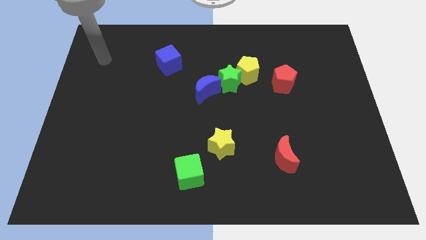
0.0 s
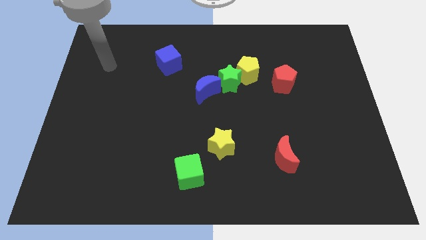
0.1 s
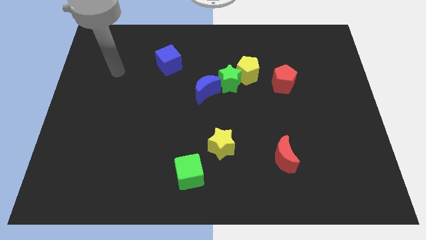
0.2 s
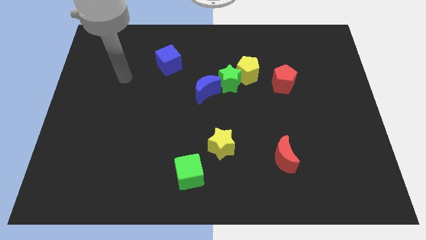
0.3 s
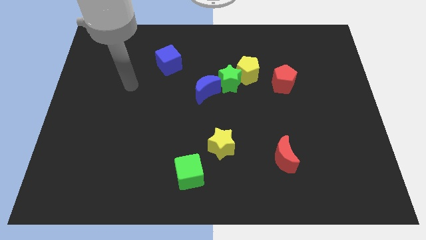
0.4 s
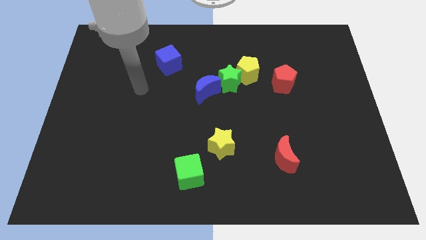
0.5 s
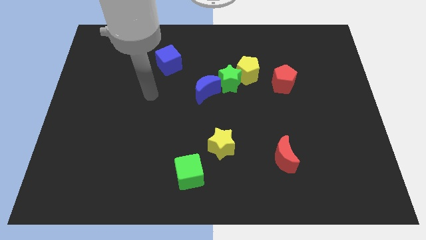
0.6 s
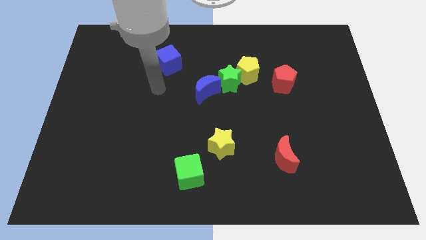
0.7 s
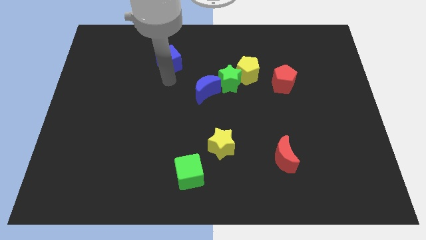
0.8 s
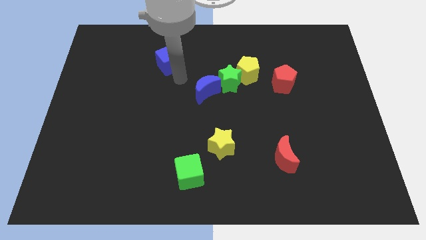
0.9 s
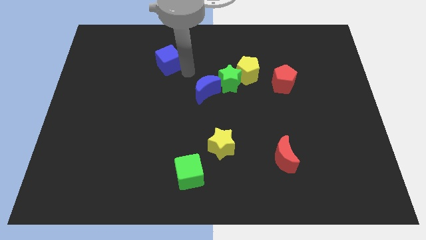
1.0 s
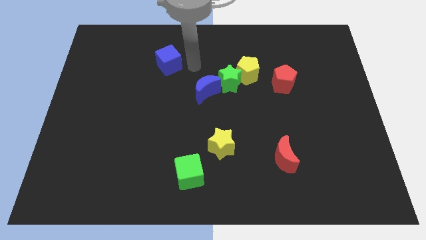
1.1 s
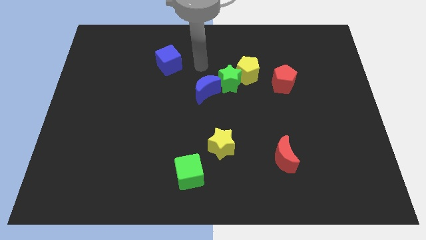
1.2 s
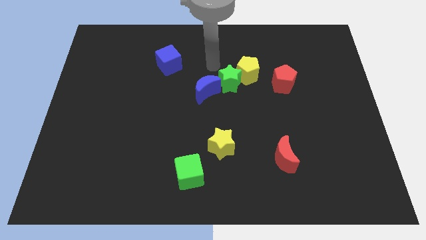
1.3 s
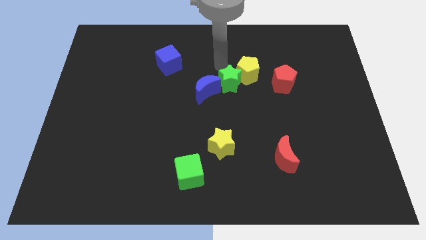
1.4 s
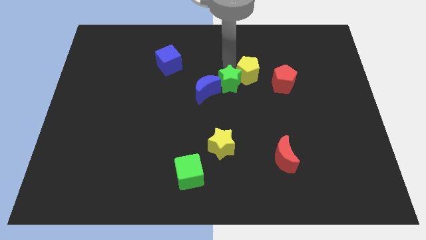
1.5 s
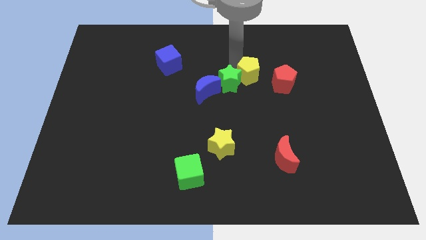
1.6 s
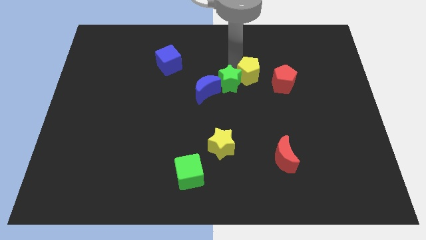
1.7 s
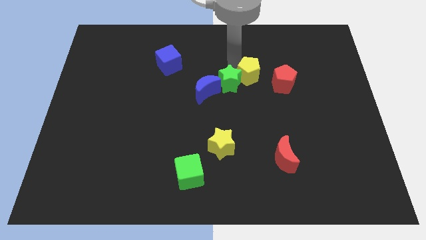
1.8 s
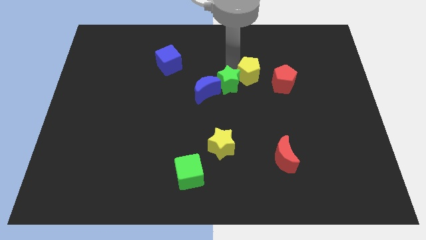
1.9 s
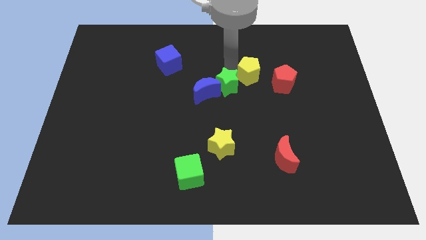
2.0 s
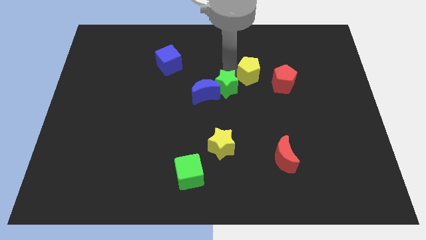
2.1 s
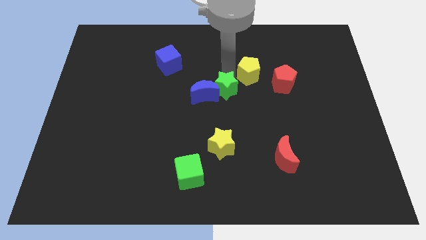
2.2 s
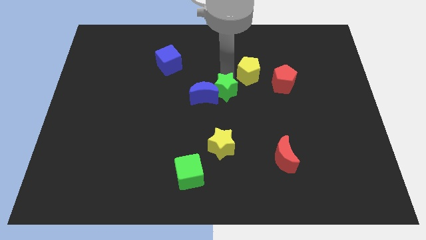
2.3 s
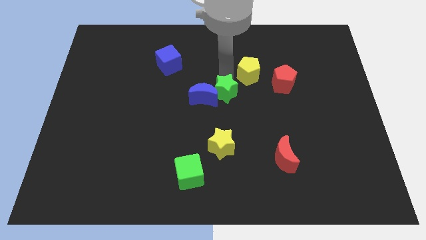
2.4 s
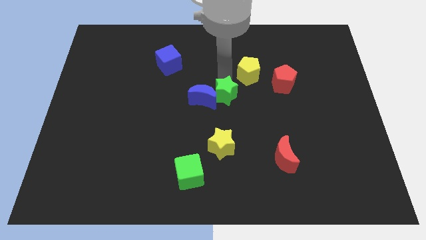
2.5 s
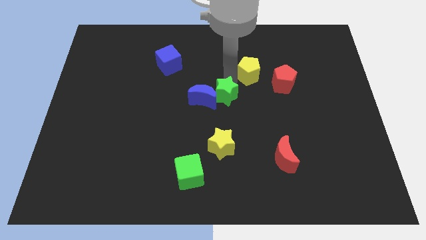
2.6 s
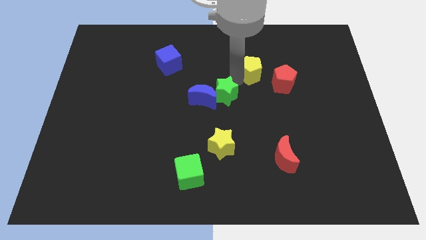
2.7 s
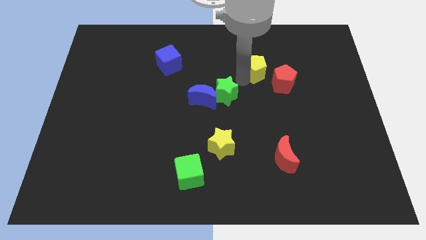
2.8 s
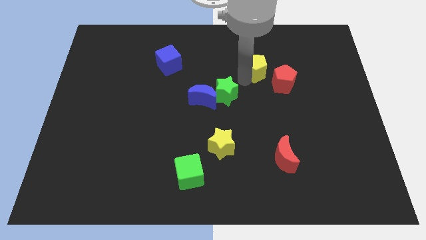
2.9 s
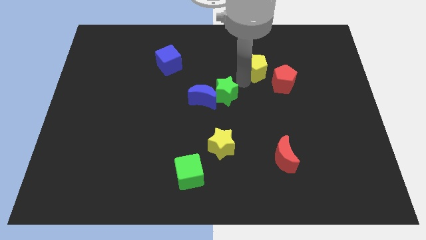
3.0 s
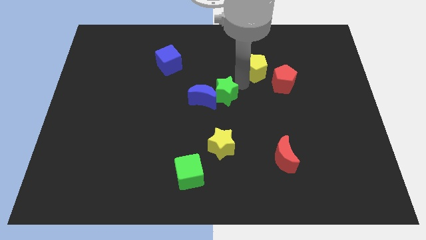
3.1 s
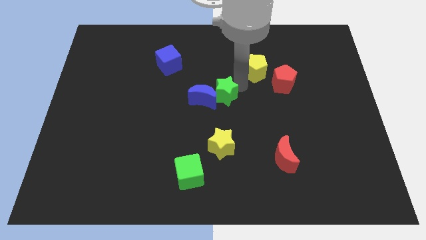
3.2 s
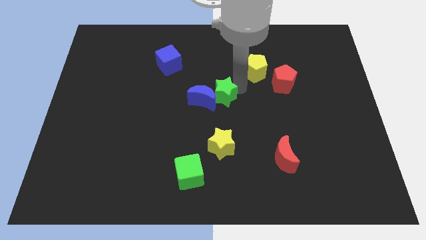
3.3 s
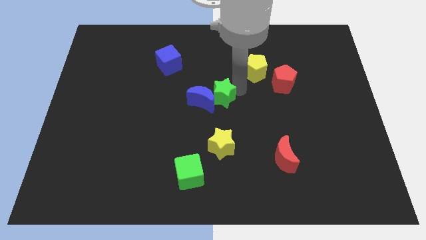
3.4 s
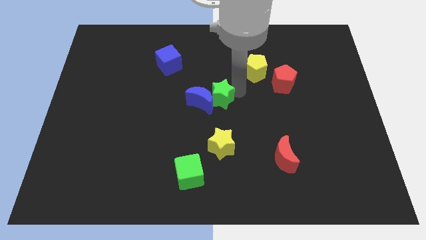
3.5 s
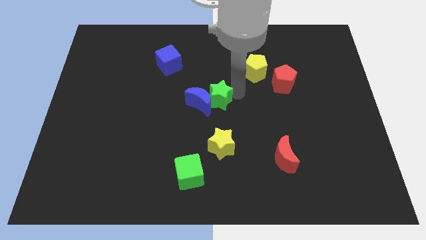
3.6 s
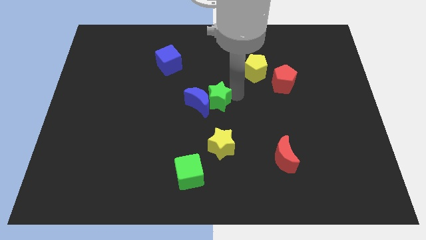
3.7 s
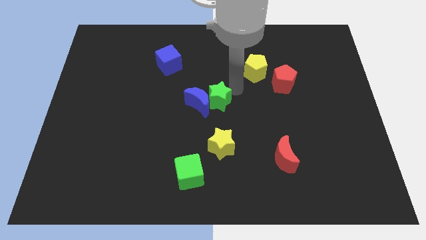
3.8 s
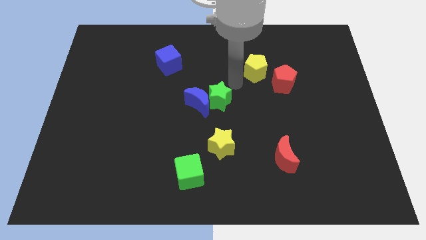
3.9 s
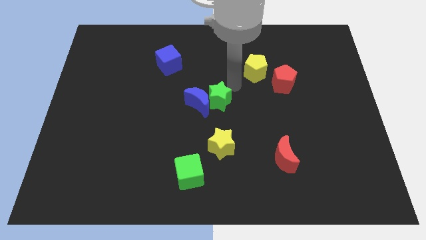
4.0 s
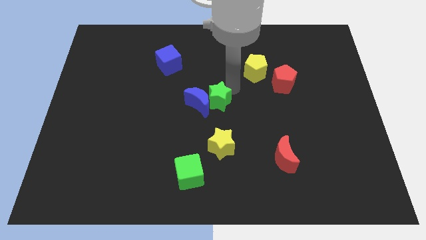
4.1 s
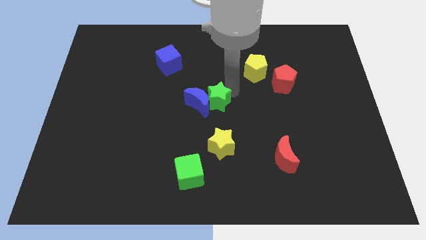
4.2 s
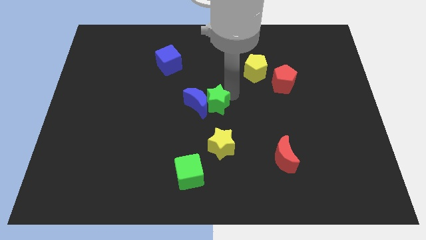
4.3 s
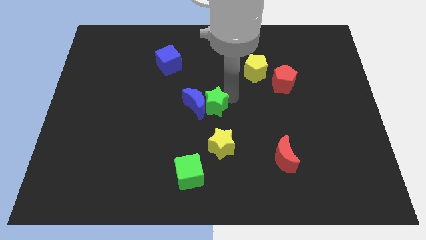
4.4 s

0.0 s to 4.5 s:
slightly push the green star downwards and left

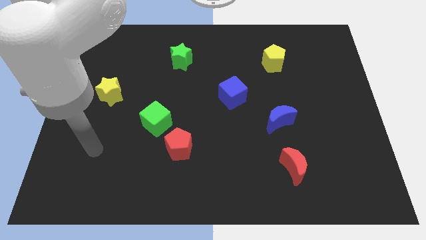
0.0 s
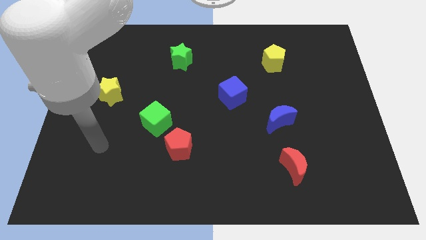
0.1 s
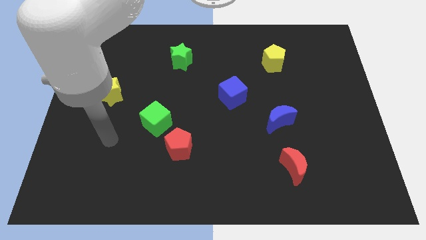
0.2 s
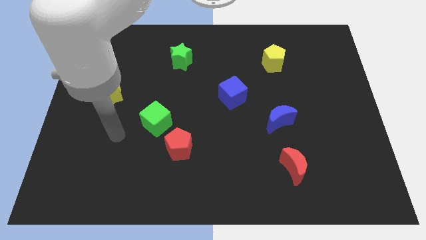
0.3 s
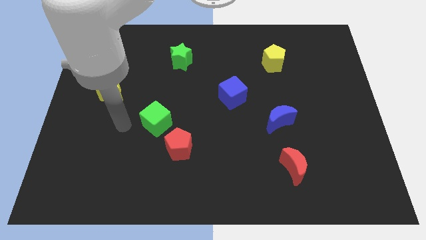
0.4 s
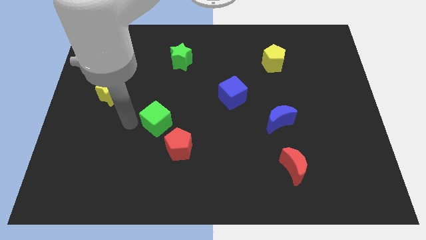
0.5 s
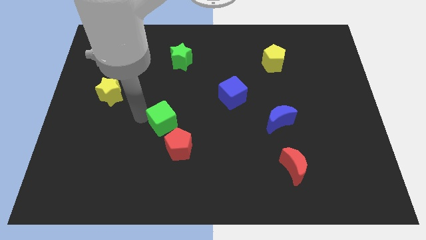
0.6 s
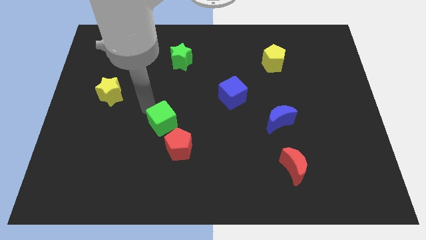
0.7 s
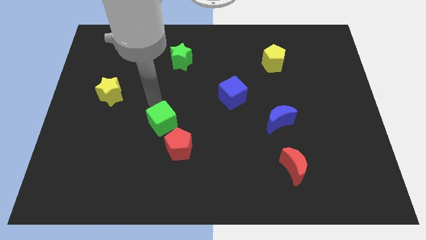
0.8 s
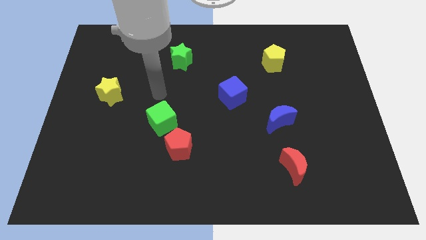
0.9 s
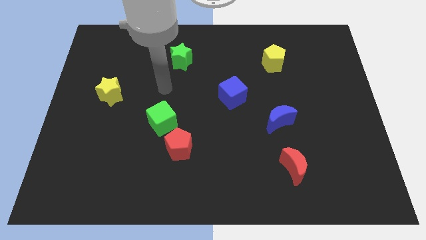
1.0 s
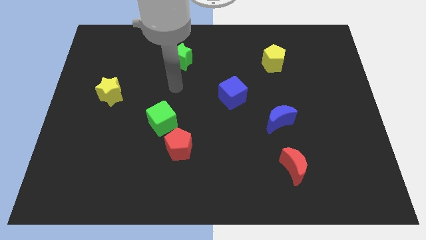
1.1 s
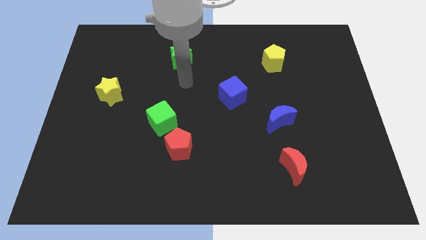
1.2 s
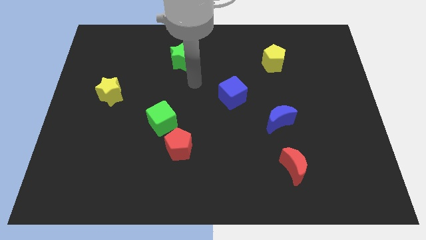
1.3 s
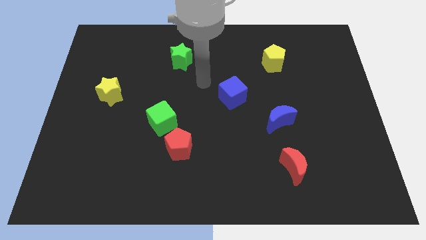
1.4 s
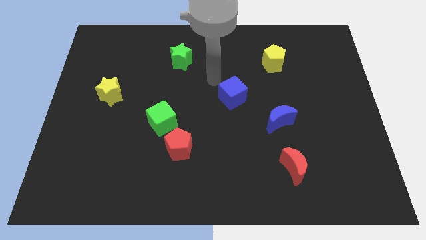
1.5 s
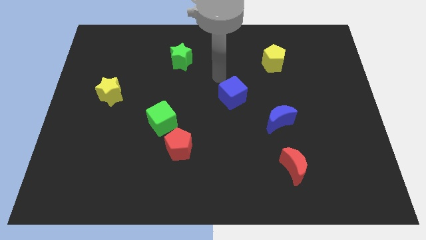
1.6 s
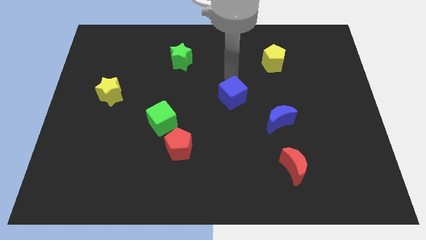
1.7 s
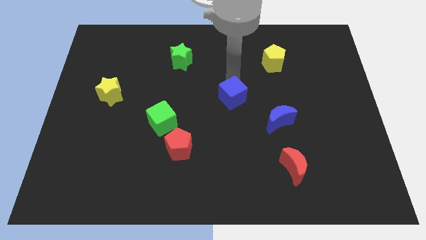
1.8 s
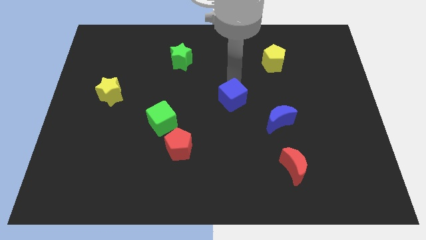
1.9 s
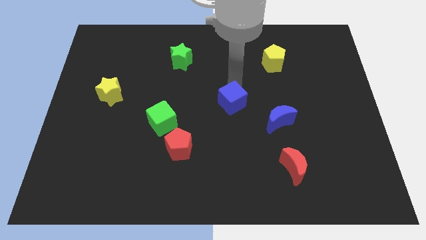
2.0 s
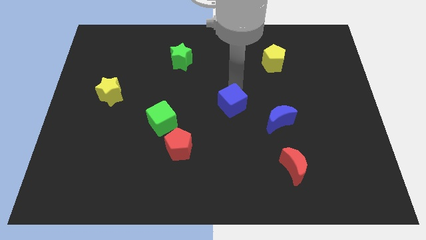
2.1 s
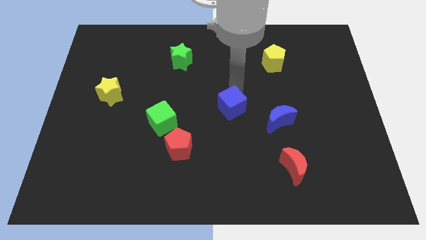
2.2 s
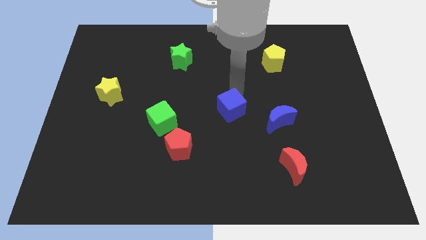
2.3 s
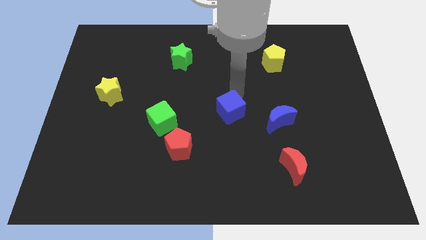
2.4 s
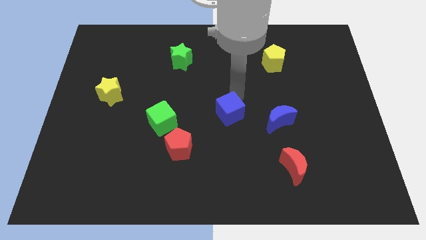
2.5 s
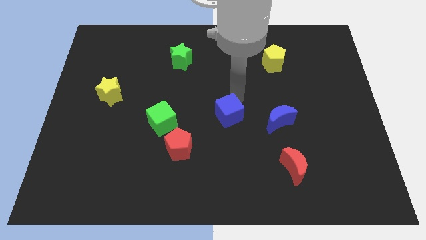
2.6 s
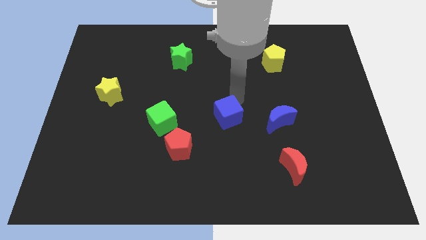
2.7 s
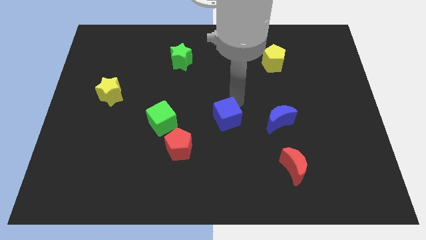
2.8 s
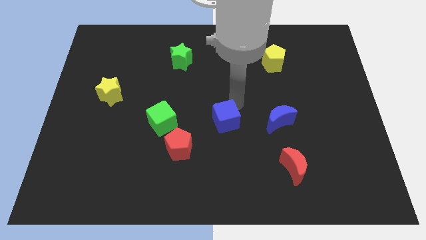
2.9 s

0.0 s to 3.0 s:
move the blue cube downwards somewhat

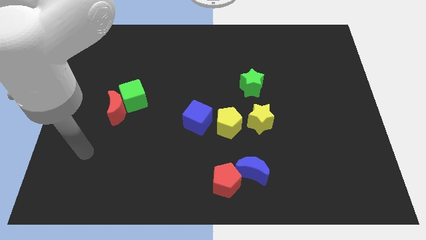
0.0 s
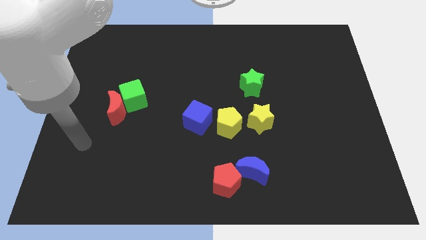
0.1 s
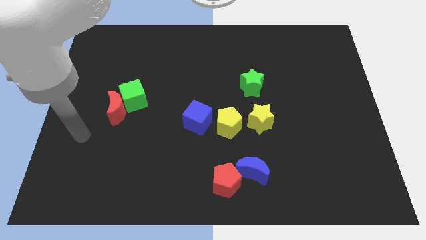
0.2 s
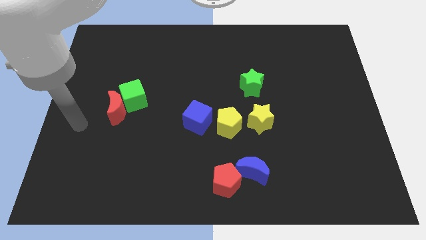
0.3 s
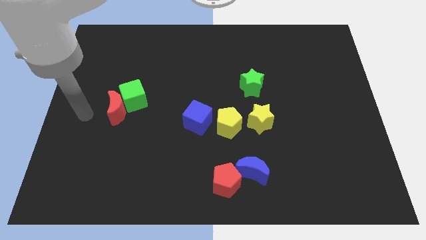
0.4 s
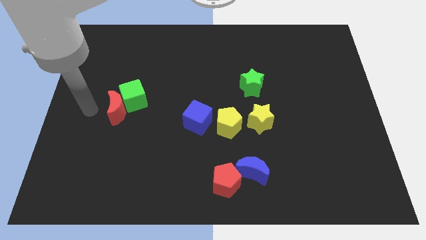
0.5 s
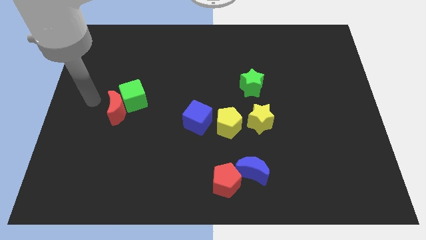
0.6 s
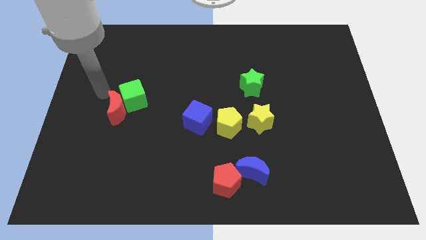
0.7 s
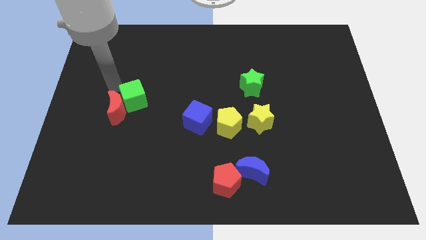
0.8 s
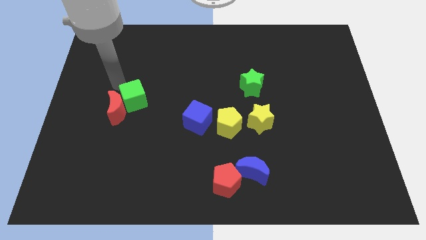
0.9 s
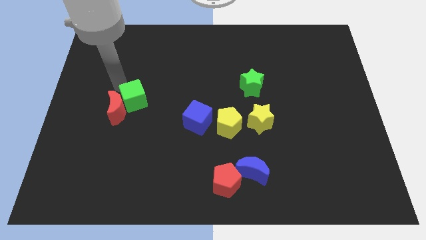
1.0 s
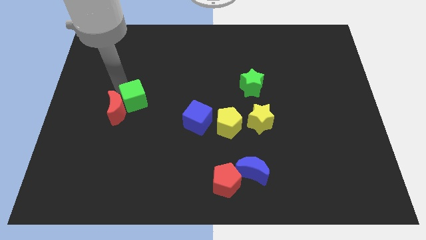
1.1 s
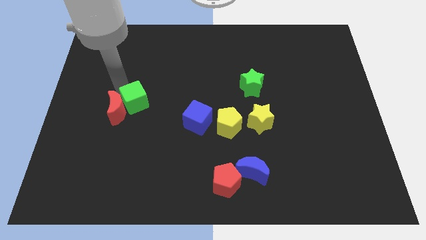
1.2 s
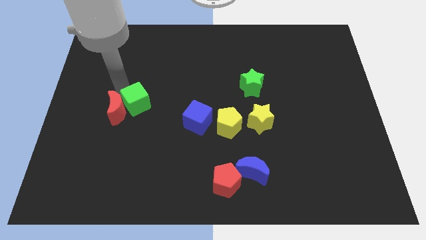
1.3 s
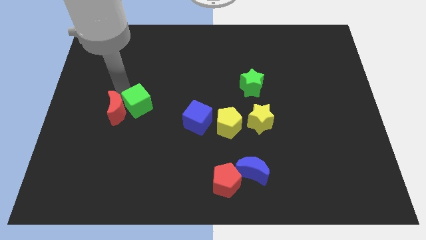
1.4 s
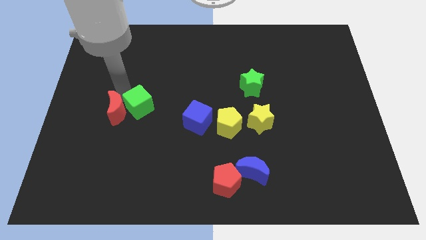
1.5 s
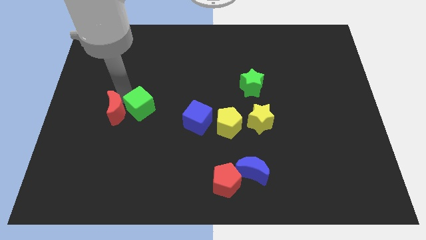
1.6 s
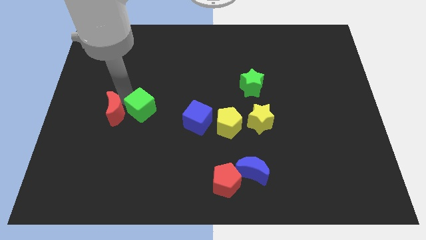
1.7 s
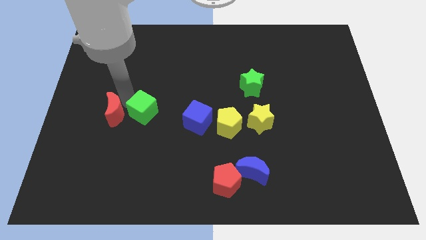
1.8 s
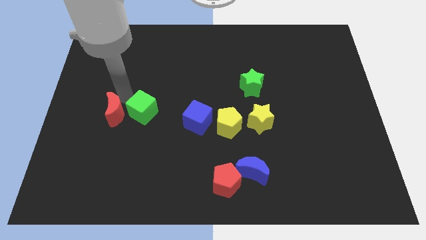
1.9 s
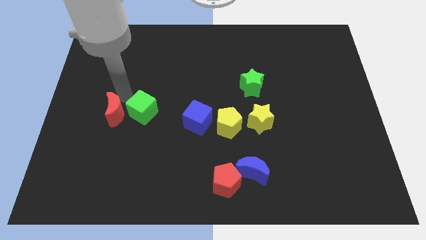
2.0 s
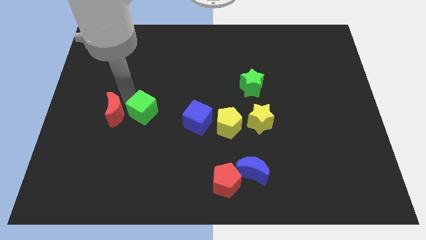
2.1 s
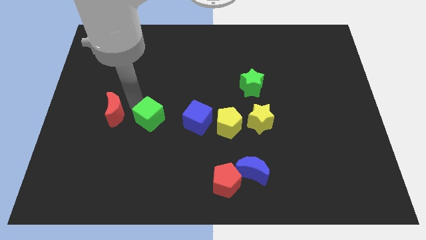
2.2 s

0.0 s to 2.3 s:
slide the green cube downwards and then to the right somewhat
